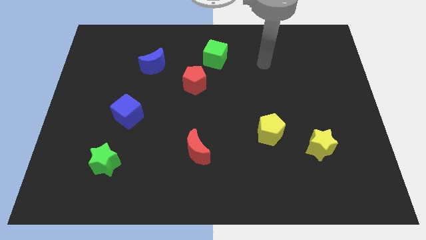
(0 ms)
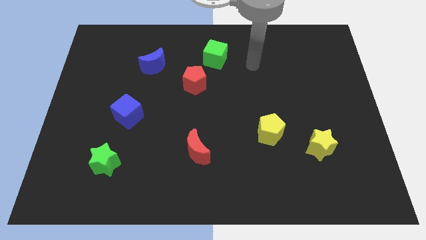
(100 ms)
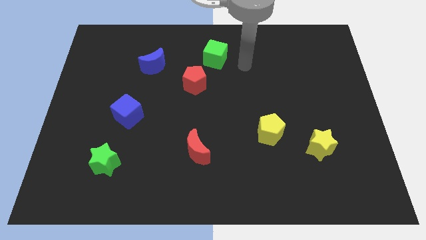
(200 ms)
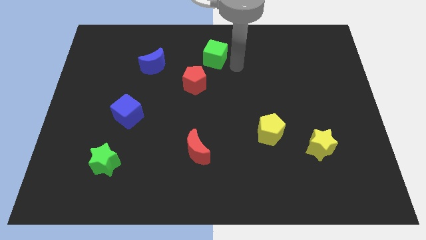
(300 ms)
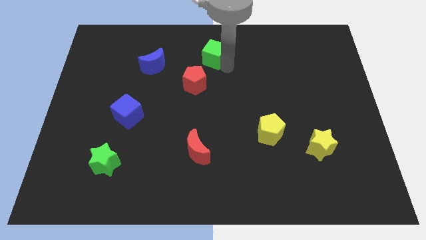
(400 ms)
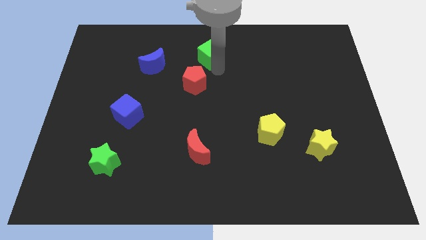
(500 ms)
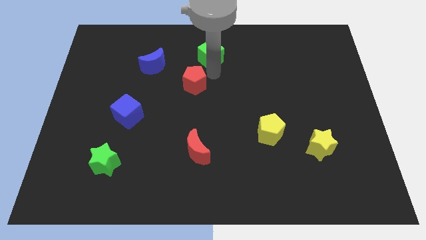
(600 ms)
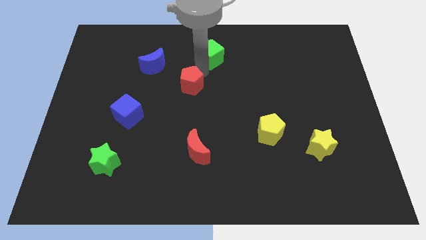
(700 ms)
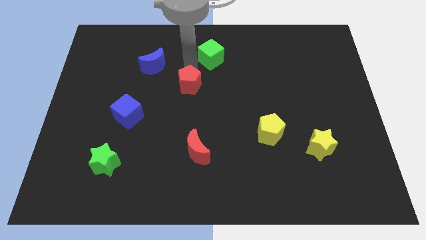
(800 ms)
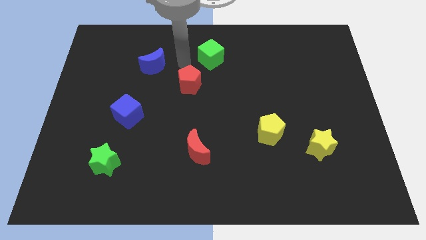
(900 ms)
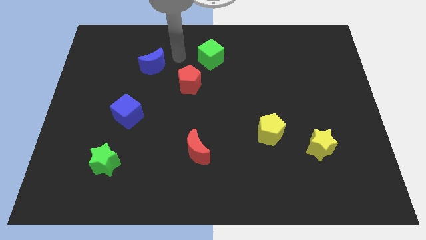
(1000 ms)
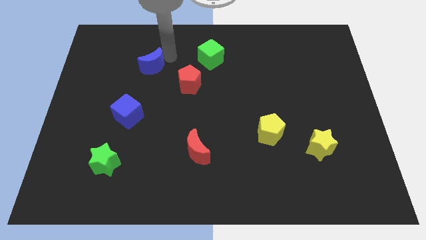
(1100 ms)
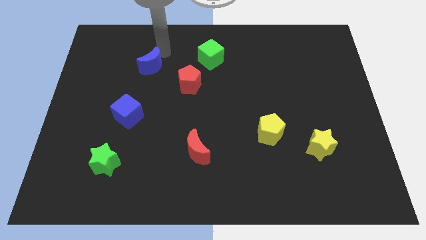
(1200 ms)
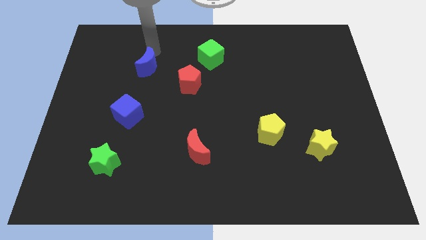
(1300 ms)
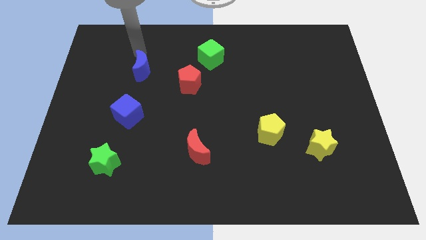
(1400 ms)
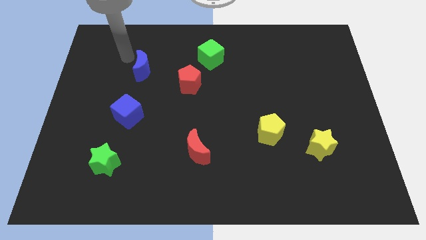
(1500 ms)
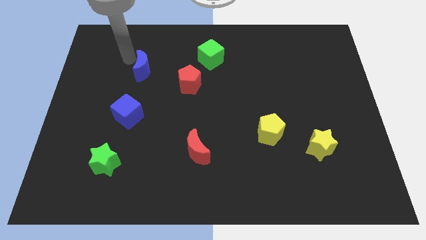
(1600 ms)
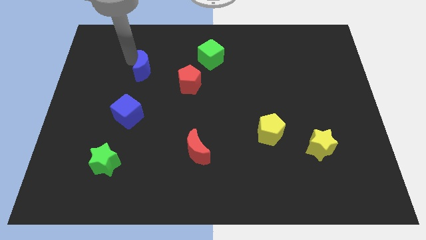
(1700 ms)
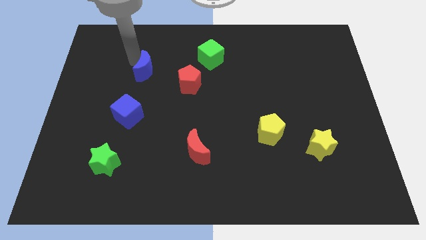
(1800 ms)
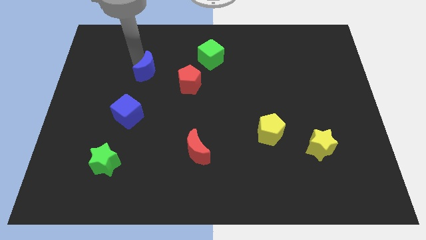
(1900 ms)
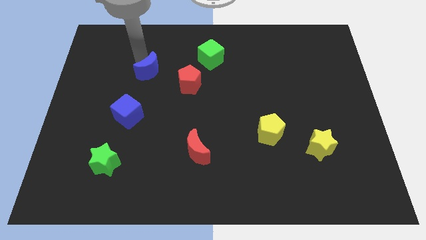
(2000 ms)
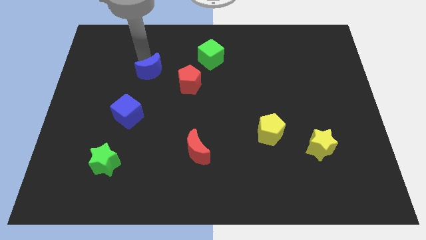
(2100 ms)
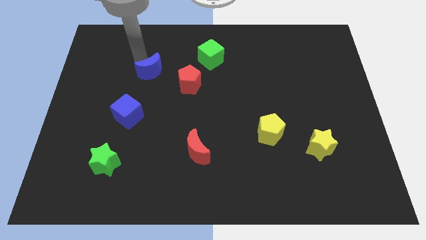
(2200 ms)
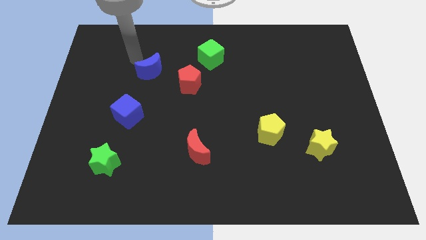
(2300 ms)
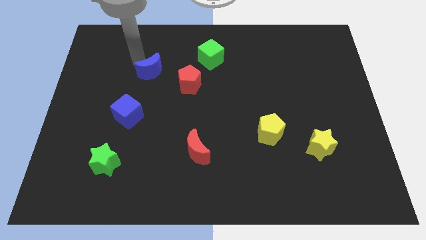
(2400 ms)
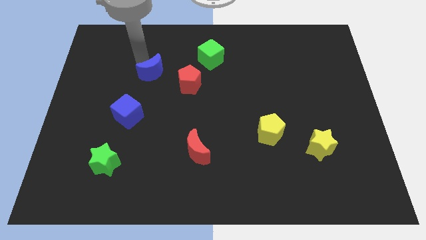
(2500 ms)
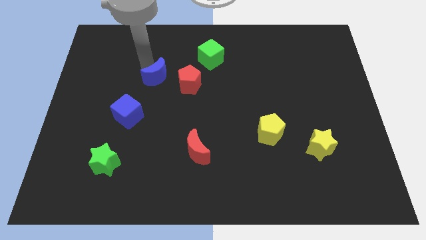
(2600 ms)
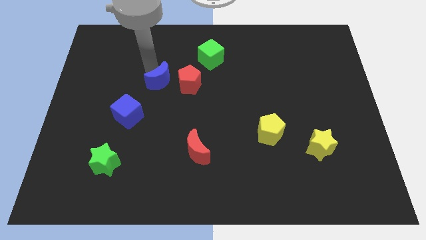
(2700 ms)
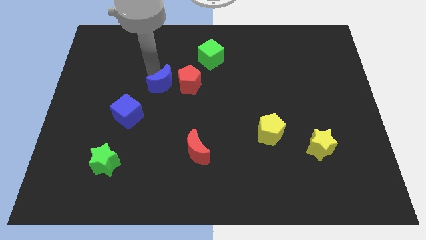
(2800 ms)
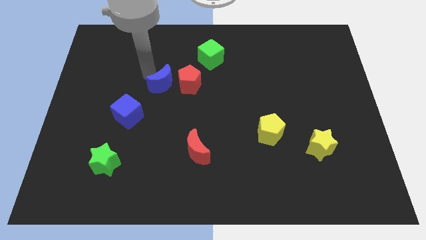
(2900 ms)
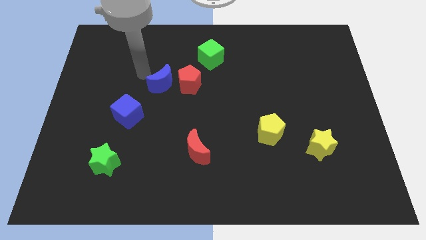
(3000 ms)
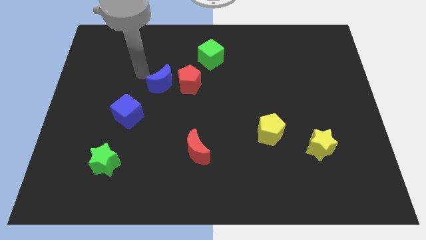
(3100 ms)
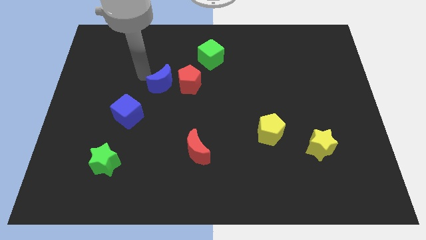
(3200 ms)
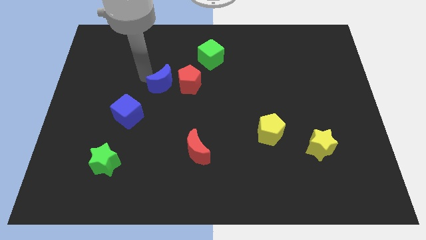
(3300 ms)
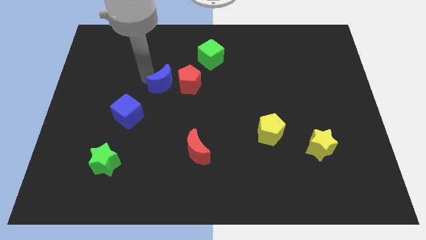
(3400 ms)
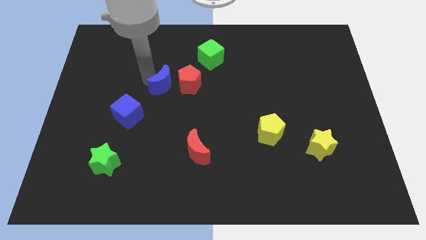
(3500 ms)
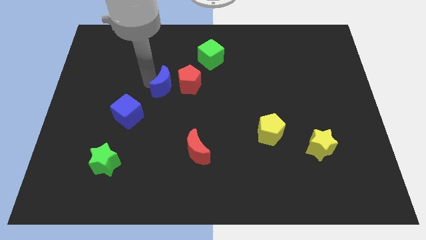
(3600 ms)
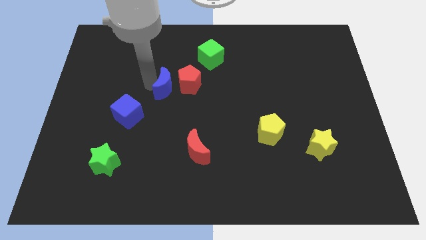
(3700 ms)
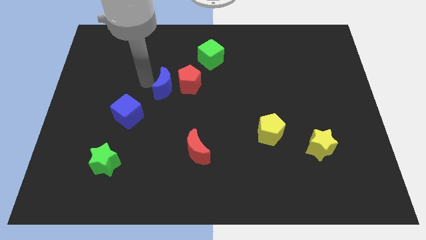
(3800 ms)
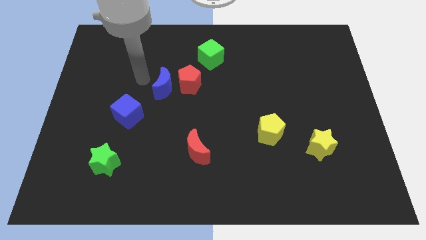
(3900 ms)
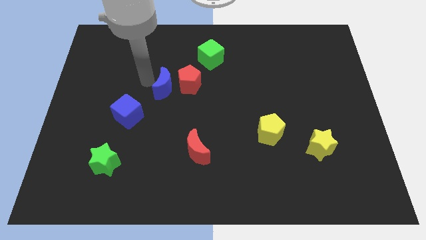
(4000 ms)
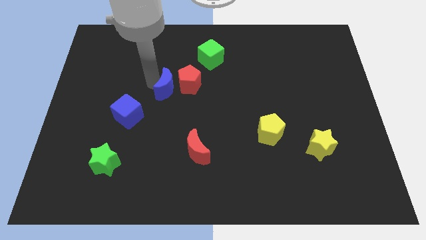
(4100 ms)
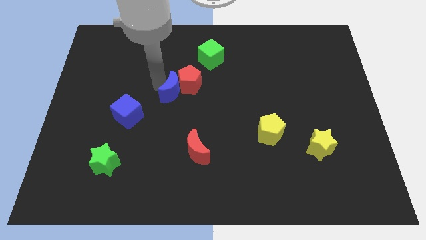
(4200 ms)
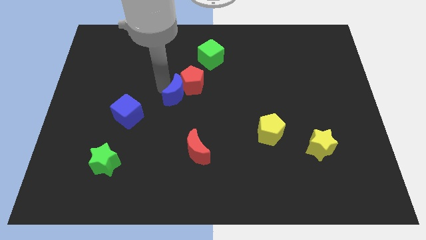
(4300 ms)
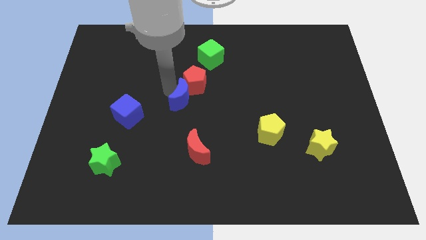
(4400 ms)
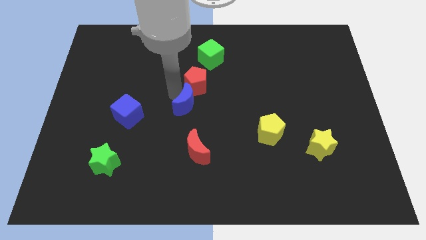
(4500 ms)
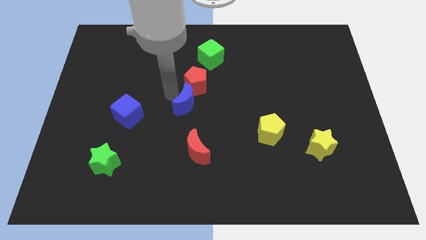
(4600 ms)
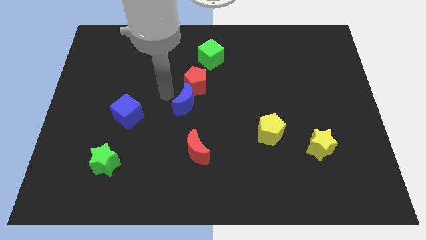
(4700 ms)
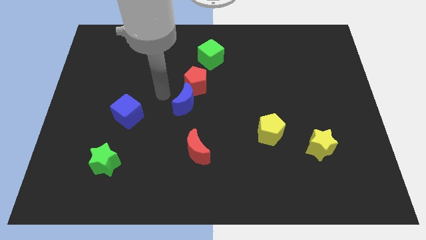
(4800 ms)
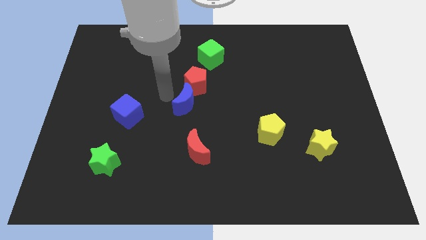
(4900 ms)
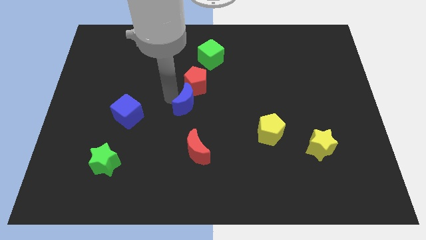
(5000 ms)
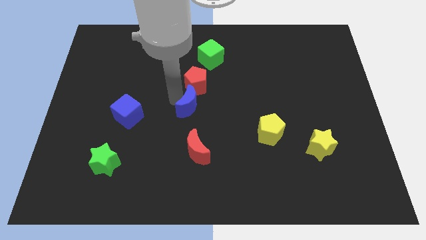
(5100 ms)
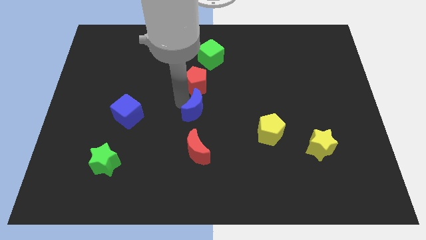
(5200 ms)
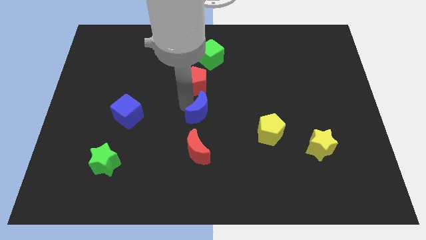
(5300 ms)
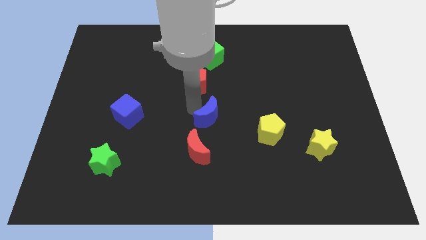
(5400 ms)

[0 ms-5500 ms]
move the blue moon downwards and right diagonally

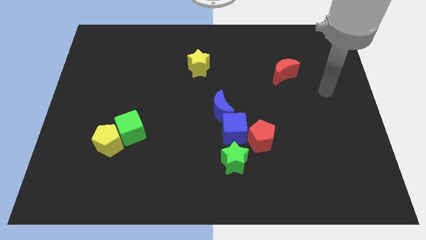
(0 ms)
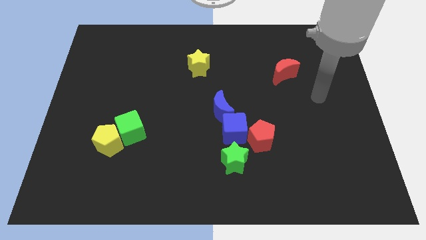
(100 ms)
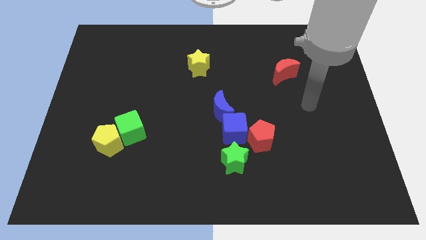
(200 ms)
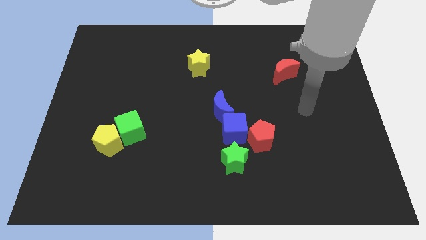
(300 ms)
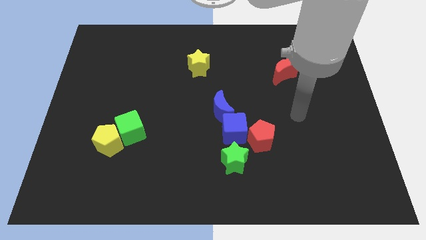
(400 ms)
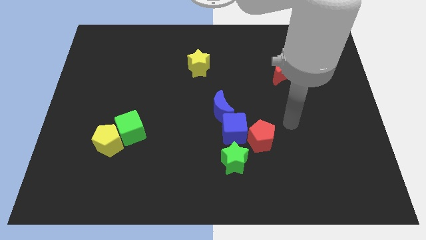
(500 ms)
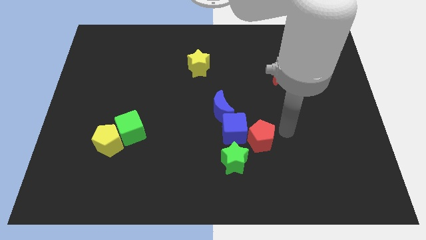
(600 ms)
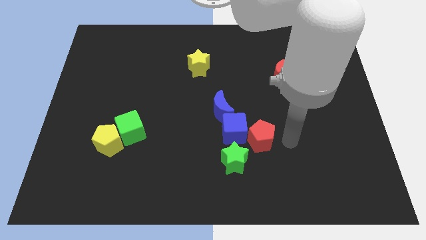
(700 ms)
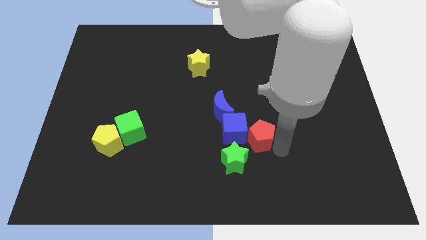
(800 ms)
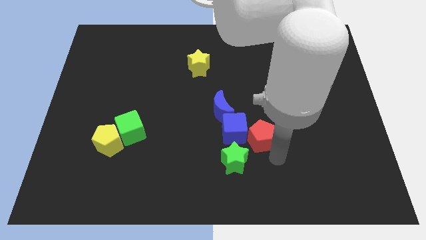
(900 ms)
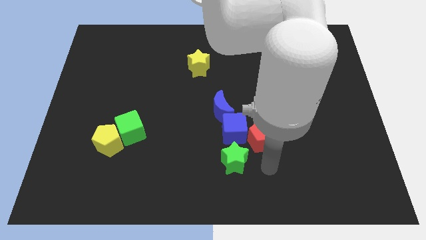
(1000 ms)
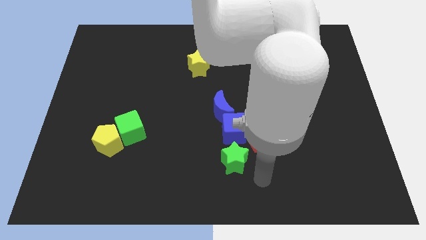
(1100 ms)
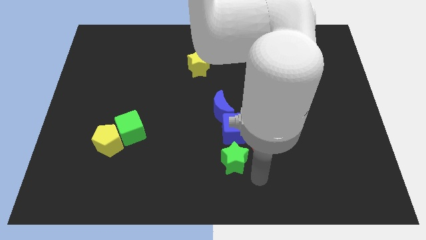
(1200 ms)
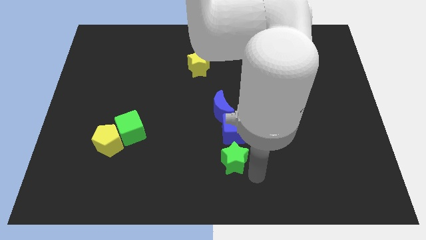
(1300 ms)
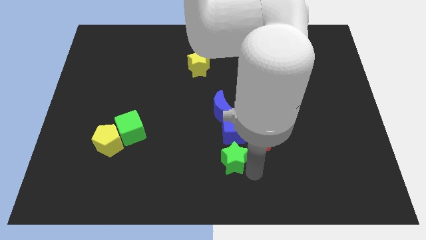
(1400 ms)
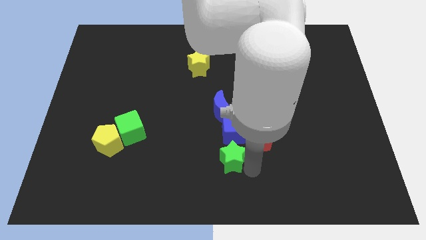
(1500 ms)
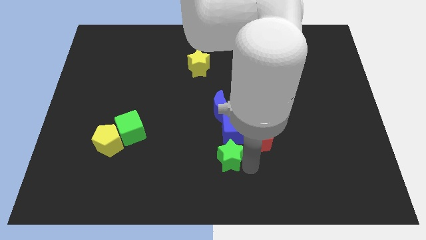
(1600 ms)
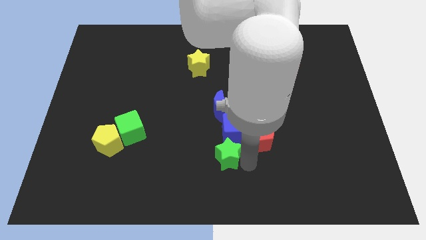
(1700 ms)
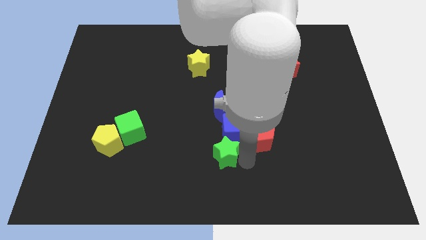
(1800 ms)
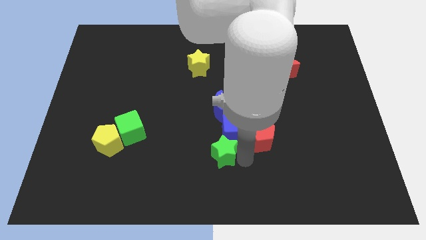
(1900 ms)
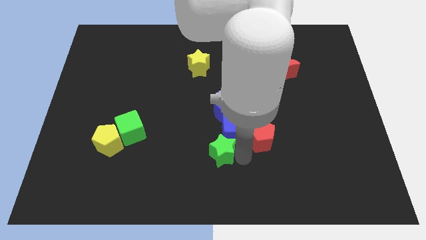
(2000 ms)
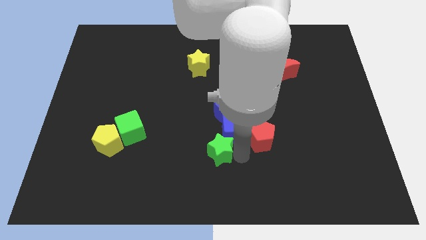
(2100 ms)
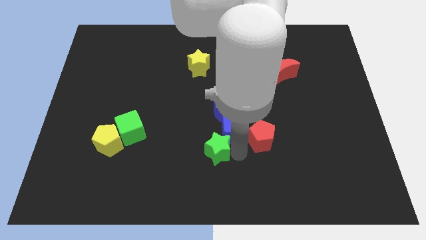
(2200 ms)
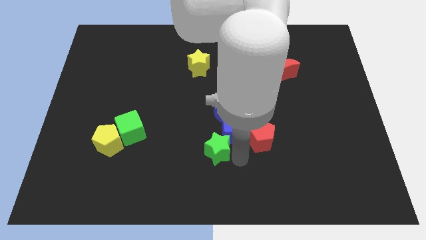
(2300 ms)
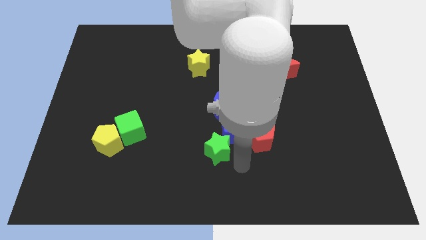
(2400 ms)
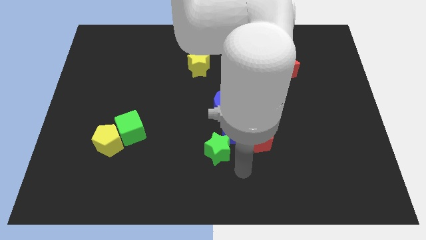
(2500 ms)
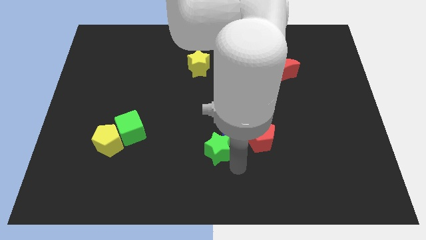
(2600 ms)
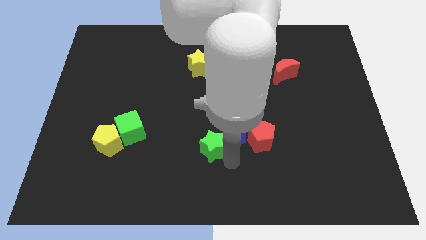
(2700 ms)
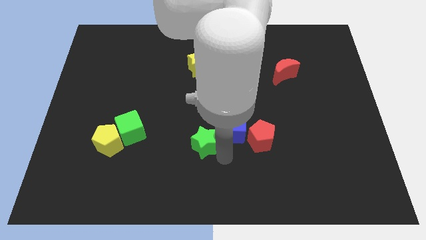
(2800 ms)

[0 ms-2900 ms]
slide the green star a bit up and then left
